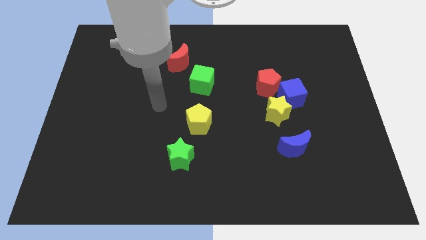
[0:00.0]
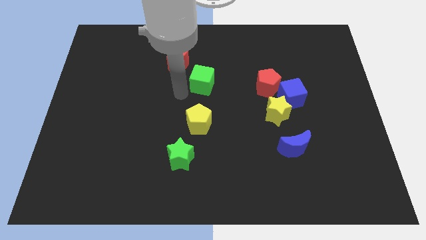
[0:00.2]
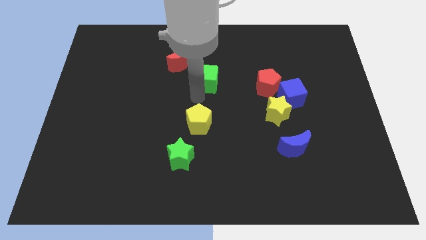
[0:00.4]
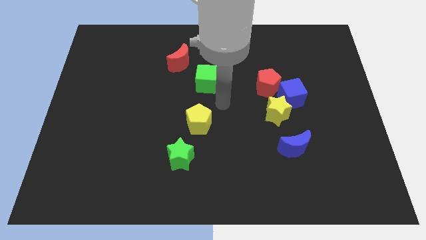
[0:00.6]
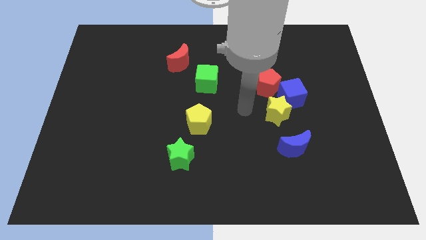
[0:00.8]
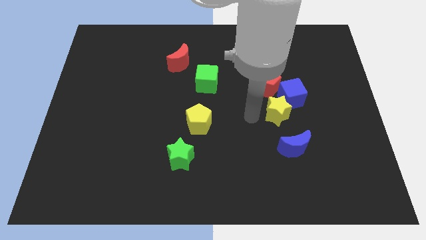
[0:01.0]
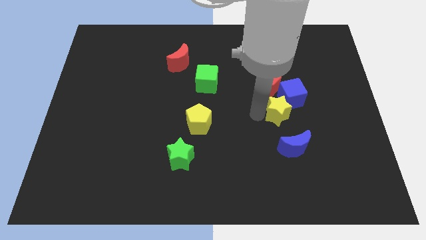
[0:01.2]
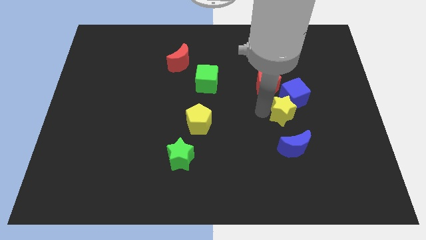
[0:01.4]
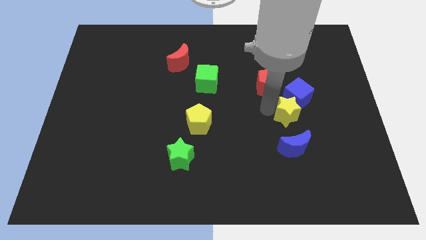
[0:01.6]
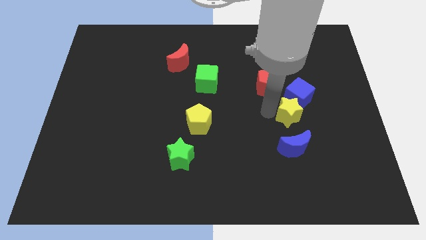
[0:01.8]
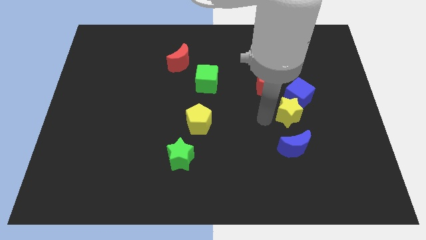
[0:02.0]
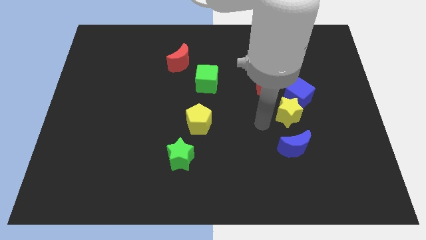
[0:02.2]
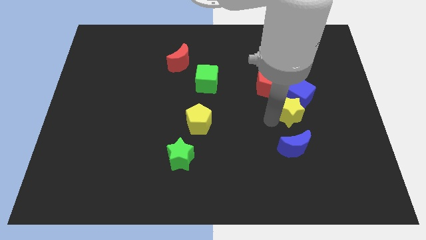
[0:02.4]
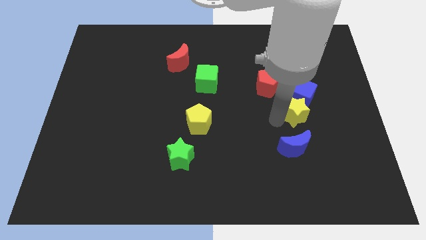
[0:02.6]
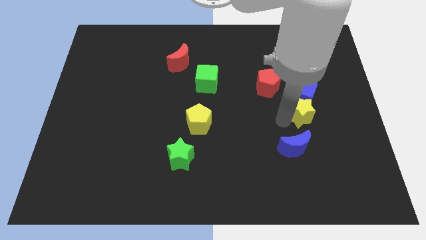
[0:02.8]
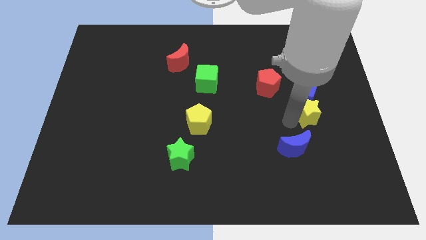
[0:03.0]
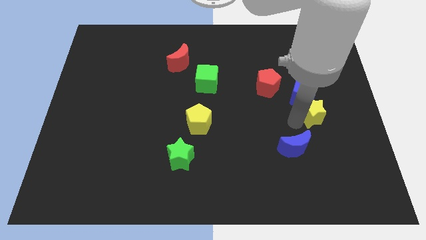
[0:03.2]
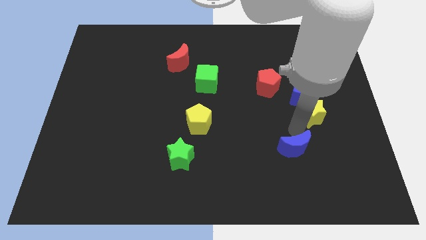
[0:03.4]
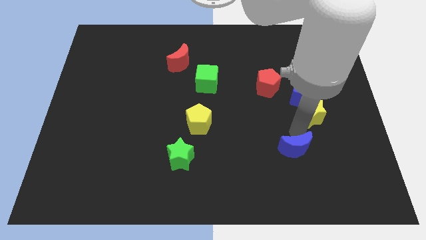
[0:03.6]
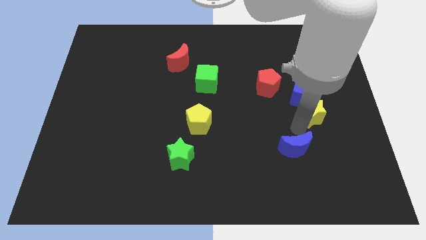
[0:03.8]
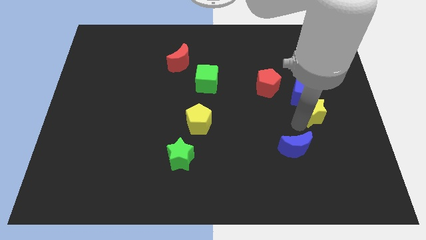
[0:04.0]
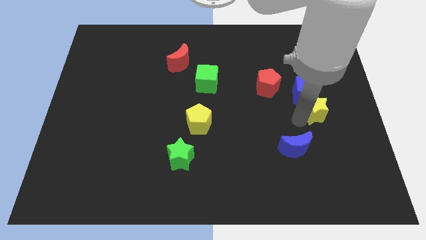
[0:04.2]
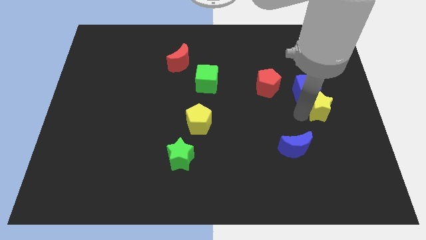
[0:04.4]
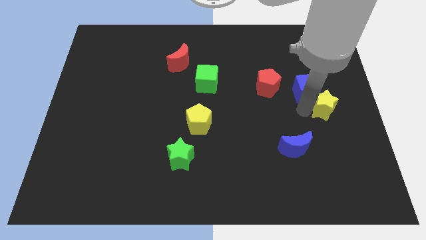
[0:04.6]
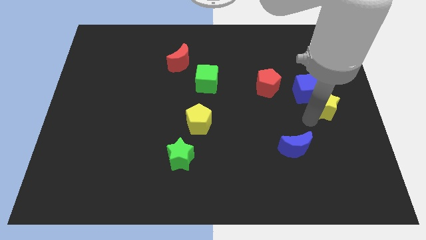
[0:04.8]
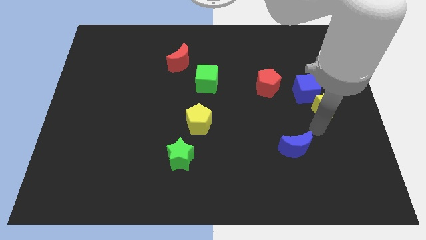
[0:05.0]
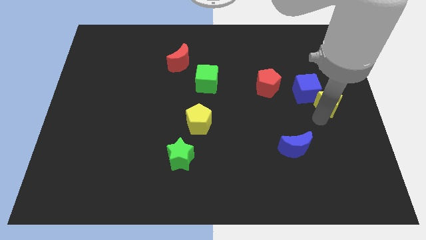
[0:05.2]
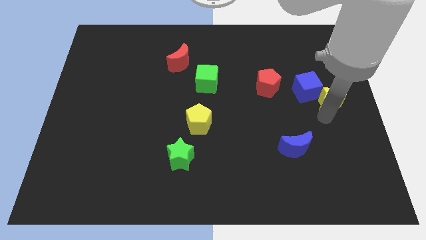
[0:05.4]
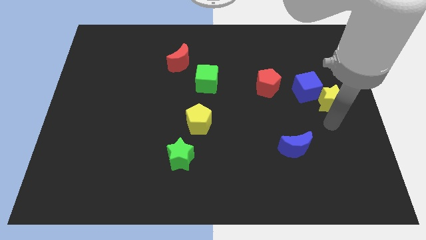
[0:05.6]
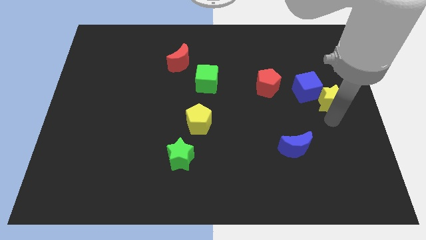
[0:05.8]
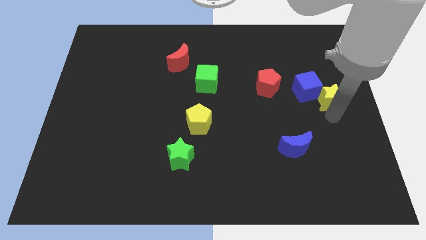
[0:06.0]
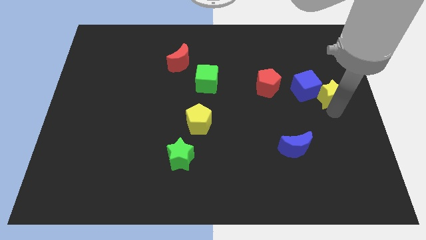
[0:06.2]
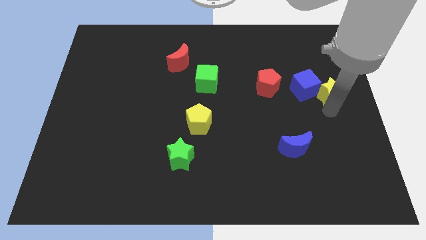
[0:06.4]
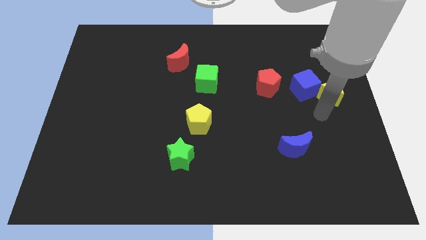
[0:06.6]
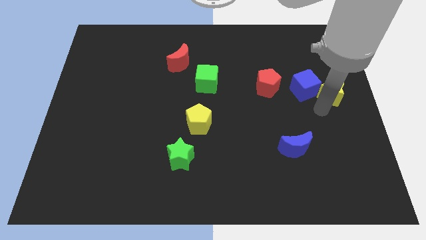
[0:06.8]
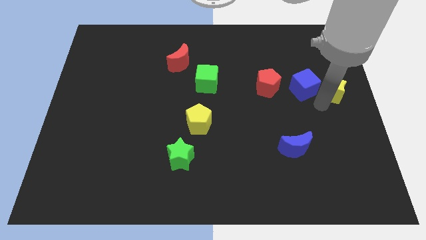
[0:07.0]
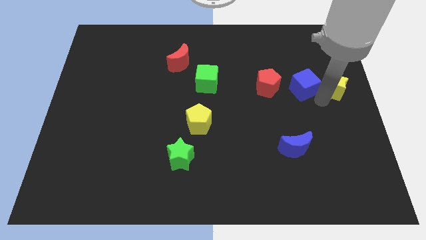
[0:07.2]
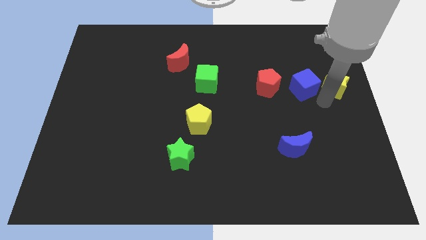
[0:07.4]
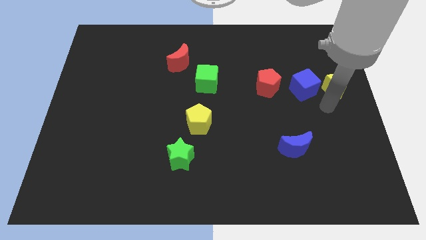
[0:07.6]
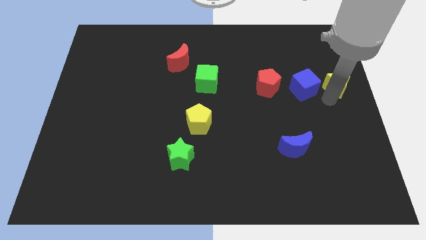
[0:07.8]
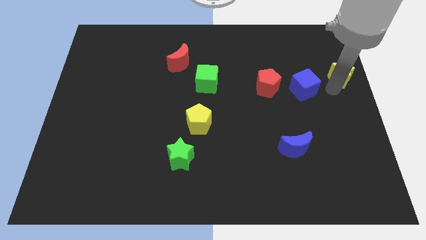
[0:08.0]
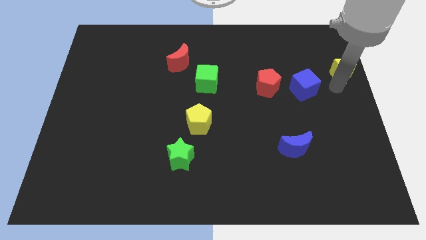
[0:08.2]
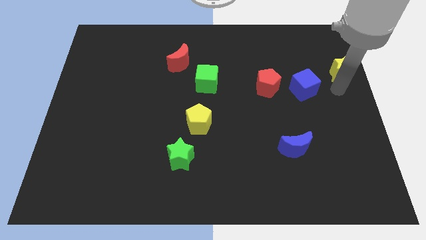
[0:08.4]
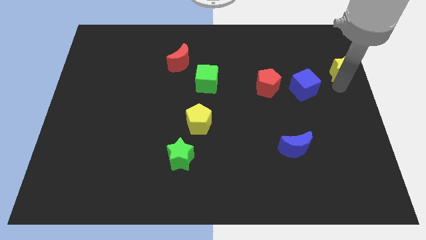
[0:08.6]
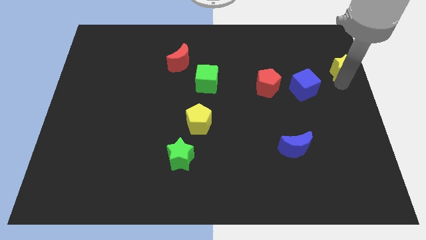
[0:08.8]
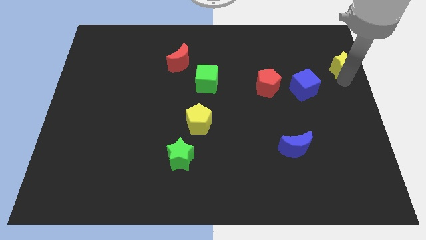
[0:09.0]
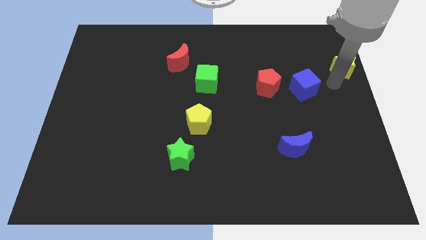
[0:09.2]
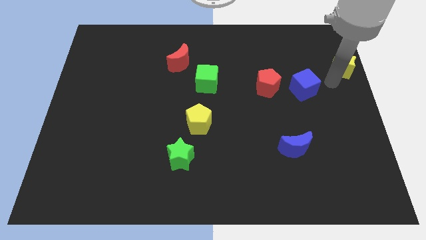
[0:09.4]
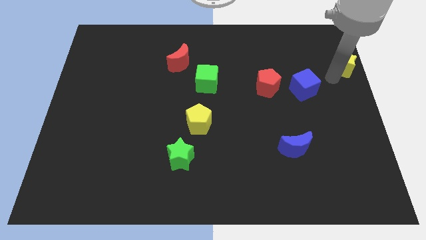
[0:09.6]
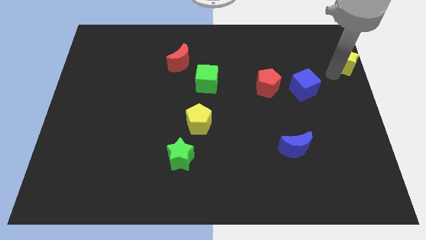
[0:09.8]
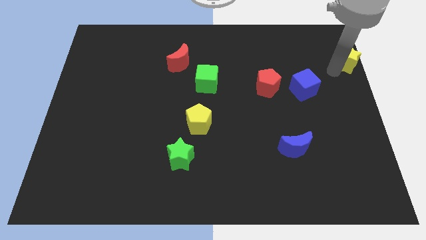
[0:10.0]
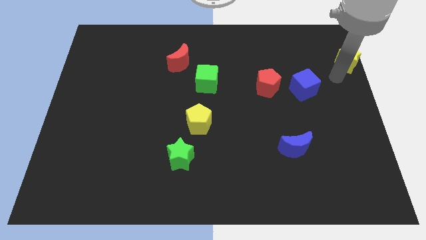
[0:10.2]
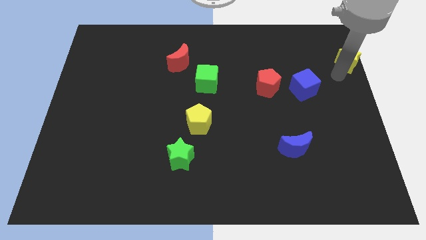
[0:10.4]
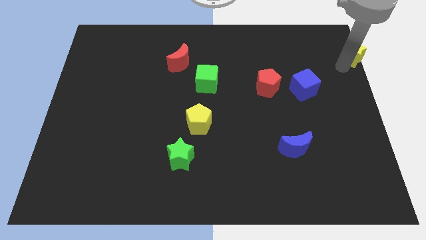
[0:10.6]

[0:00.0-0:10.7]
push the yellow star to the top right corner

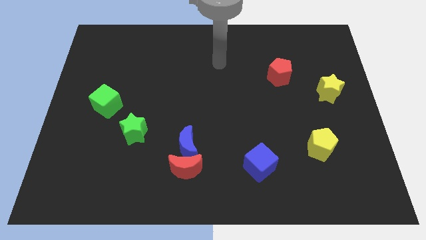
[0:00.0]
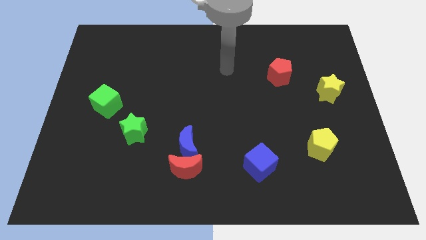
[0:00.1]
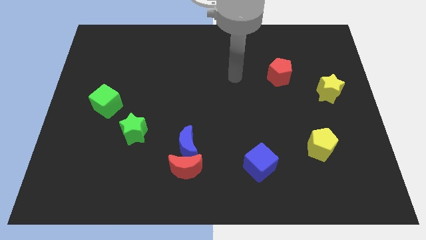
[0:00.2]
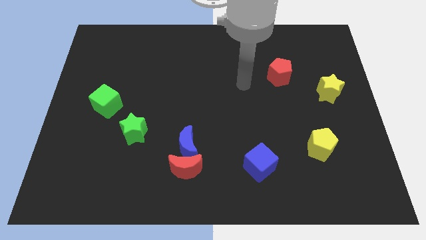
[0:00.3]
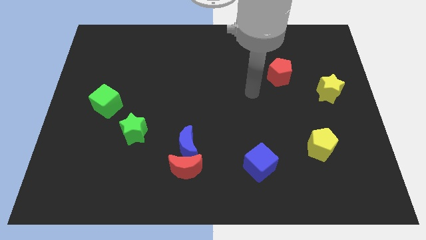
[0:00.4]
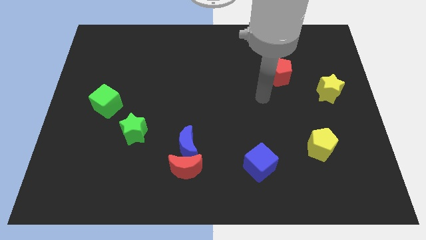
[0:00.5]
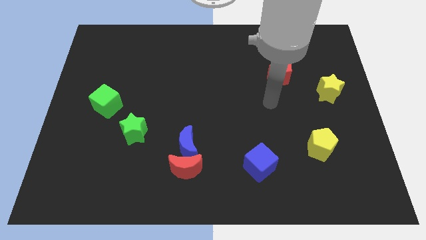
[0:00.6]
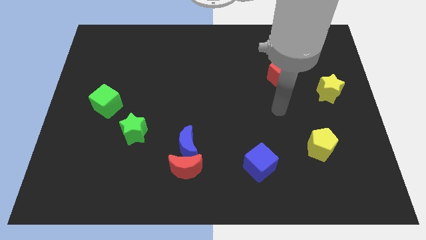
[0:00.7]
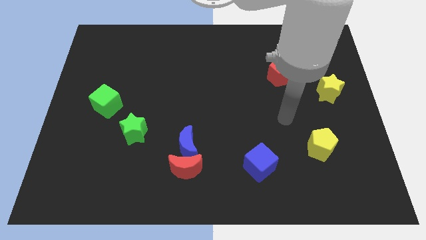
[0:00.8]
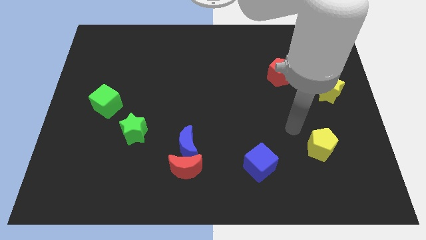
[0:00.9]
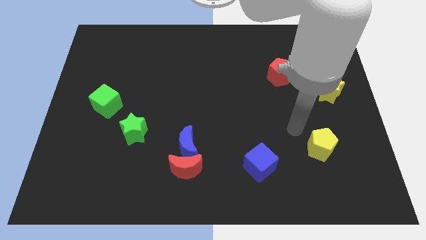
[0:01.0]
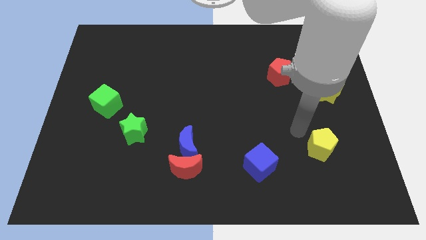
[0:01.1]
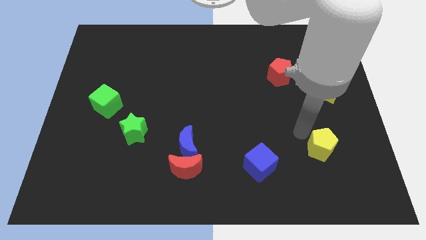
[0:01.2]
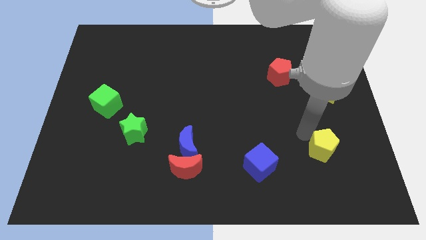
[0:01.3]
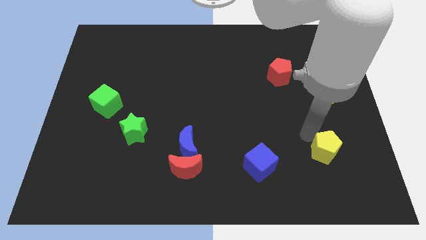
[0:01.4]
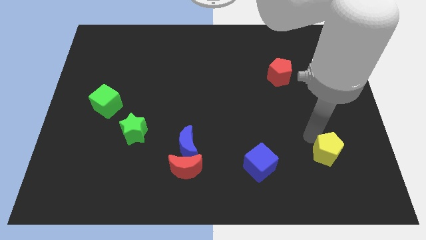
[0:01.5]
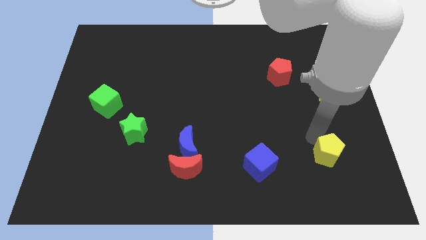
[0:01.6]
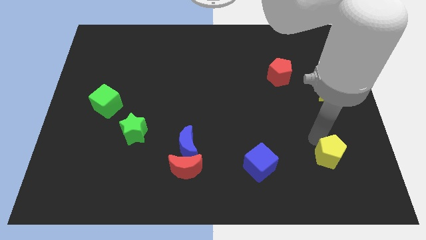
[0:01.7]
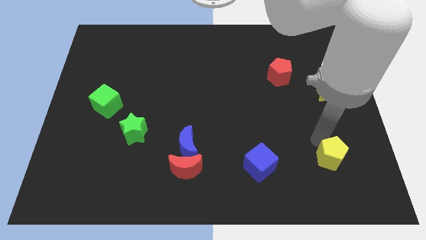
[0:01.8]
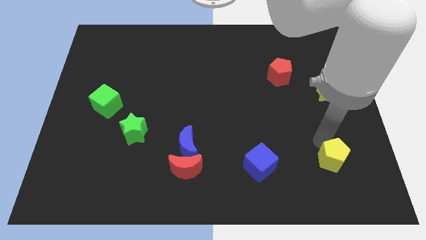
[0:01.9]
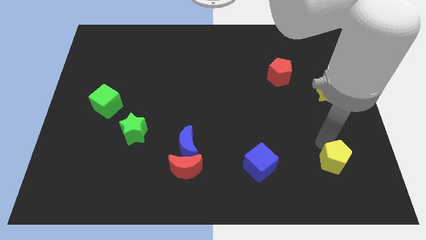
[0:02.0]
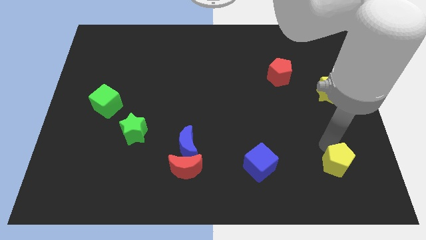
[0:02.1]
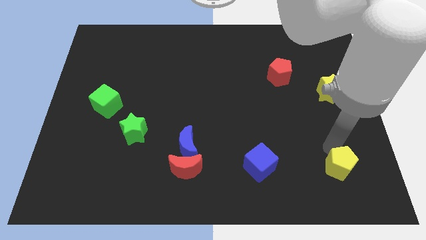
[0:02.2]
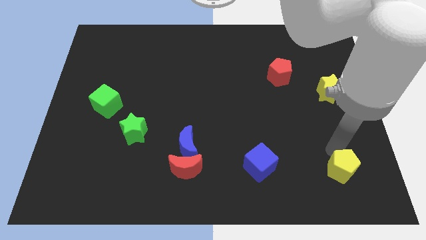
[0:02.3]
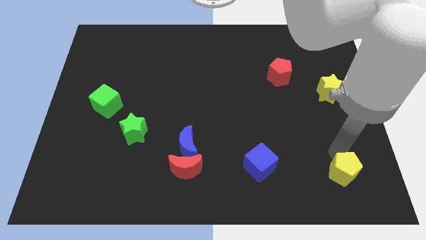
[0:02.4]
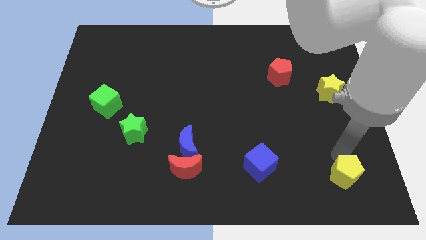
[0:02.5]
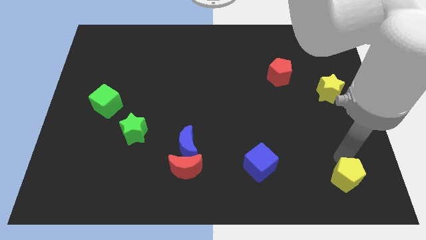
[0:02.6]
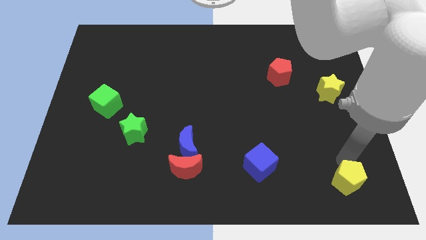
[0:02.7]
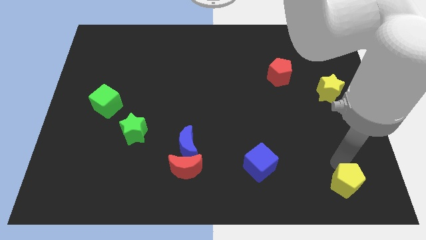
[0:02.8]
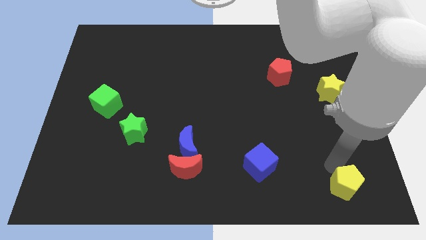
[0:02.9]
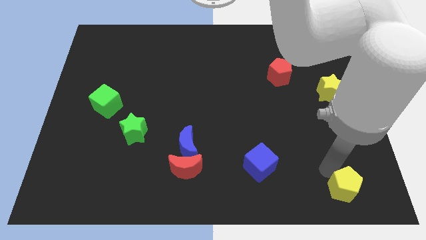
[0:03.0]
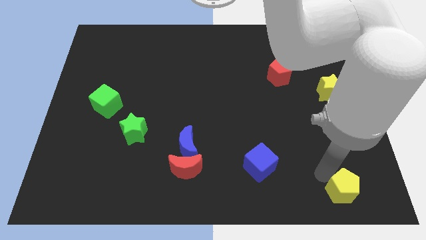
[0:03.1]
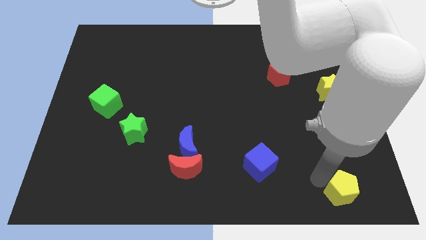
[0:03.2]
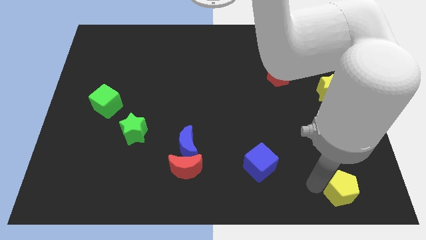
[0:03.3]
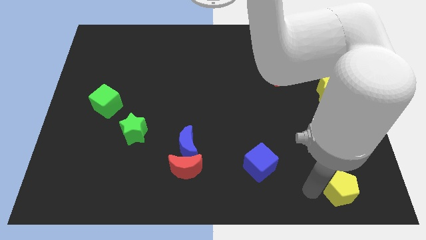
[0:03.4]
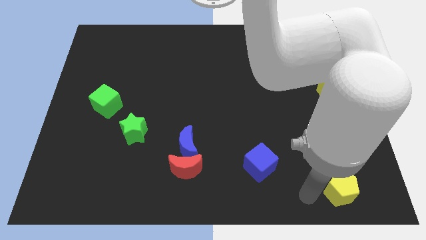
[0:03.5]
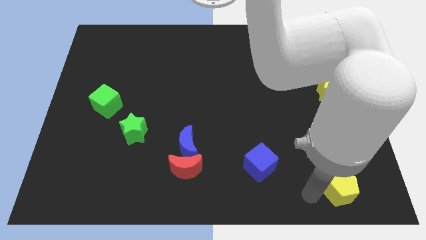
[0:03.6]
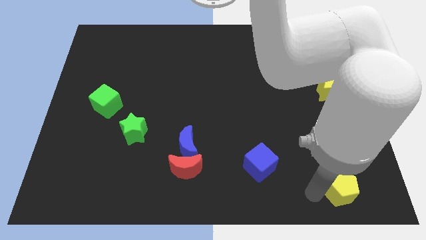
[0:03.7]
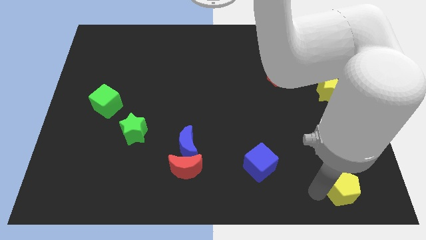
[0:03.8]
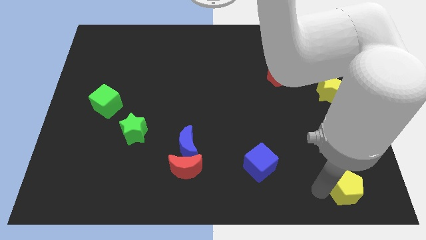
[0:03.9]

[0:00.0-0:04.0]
move the yellow pentagon to the lower right corner
